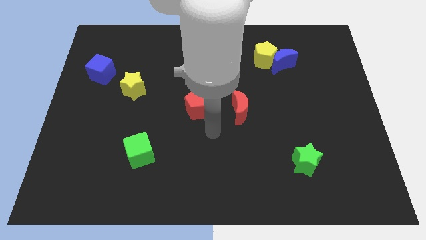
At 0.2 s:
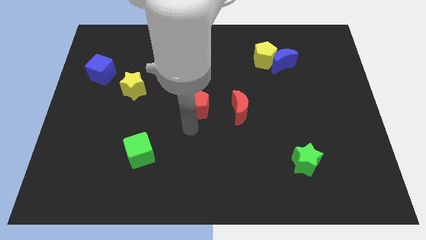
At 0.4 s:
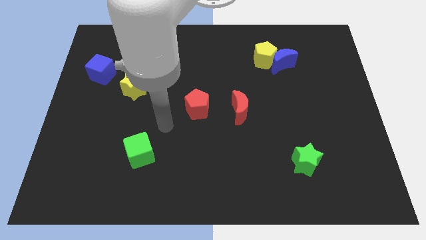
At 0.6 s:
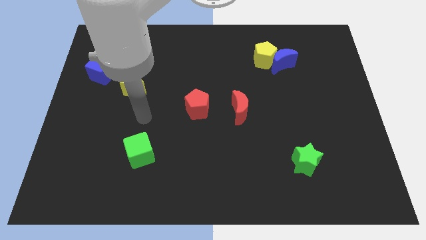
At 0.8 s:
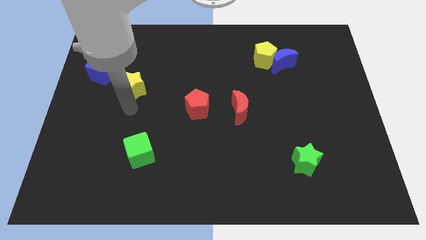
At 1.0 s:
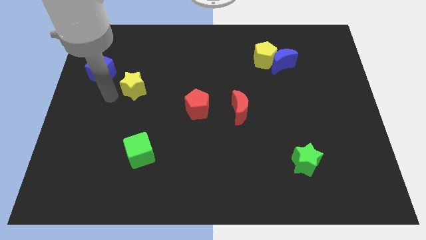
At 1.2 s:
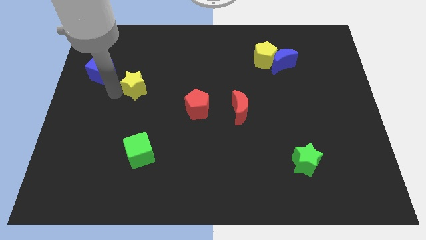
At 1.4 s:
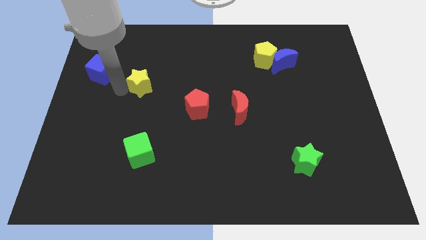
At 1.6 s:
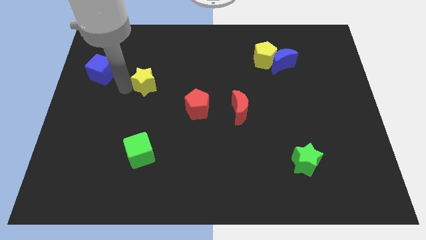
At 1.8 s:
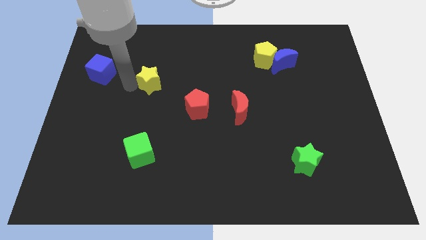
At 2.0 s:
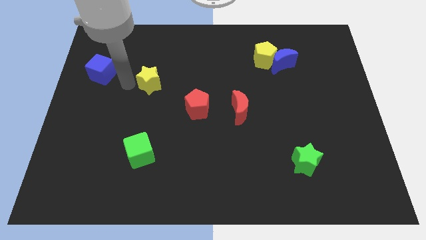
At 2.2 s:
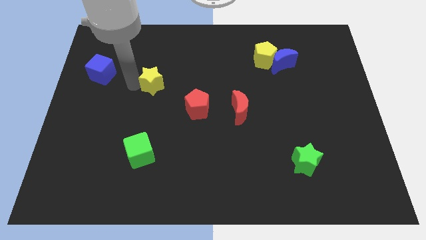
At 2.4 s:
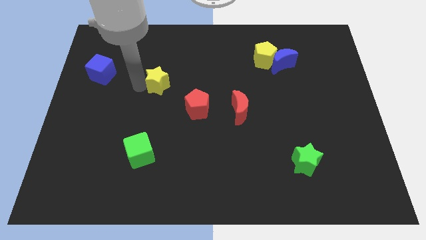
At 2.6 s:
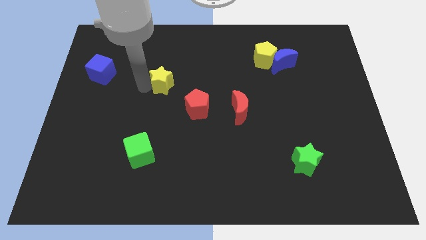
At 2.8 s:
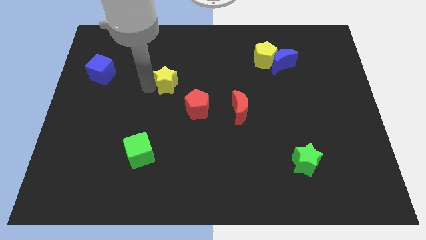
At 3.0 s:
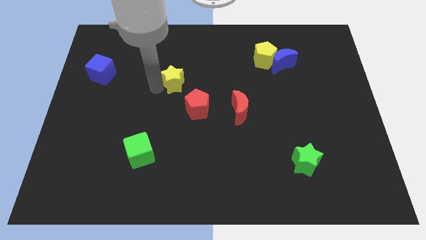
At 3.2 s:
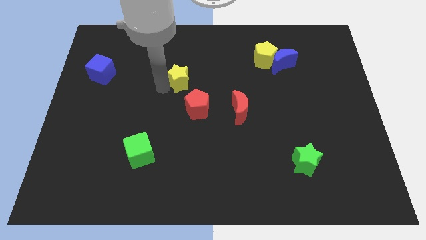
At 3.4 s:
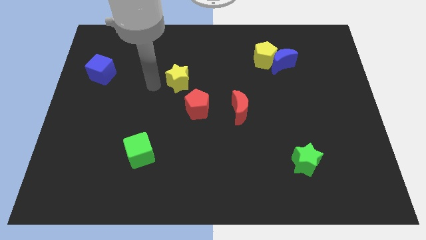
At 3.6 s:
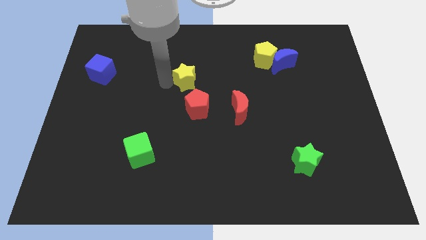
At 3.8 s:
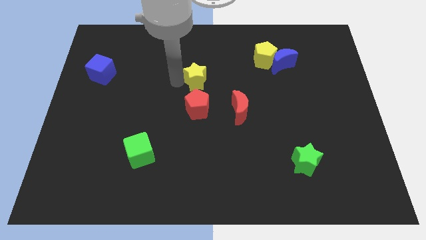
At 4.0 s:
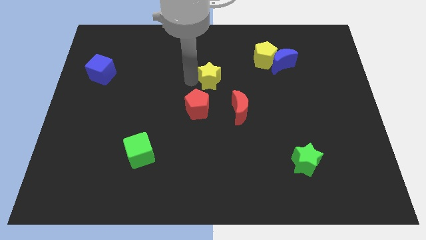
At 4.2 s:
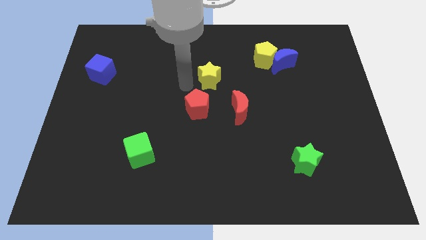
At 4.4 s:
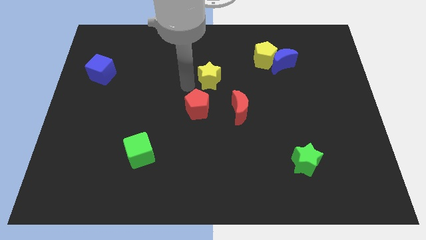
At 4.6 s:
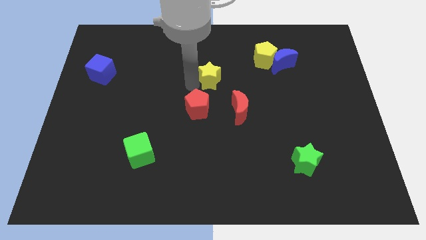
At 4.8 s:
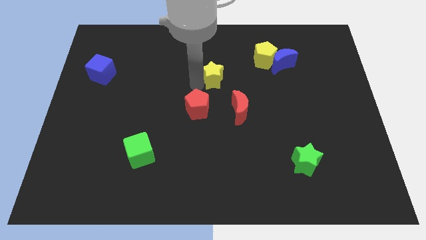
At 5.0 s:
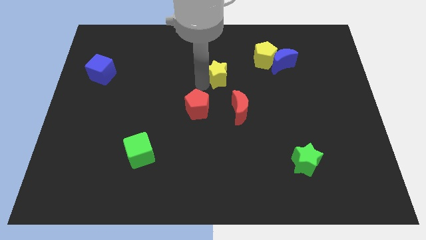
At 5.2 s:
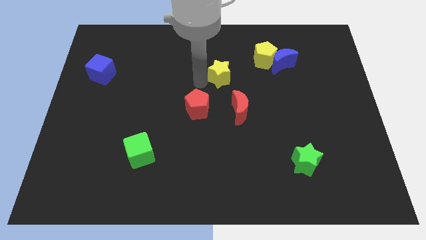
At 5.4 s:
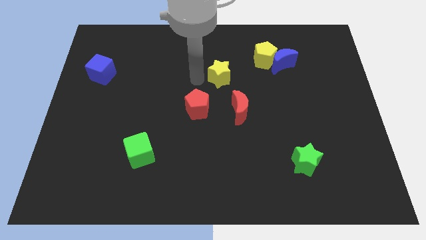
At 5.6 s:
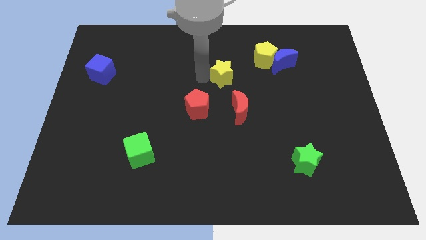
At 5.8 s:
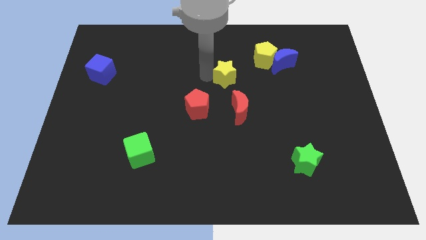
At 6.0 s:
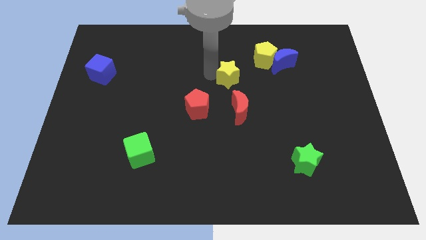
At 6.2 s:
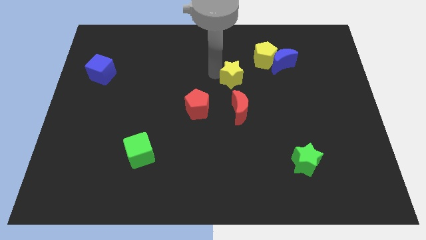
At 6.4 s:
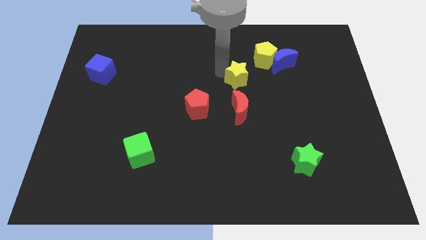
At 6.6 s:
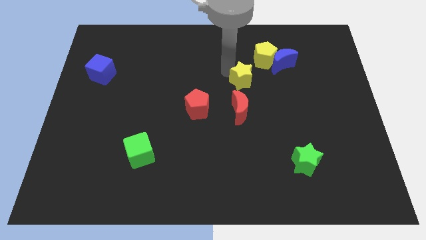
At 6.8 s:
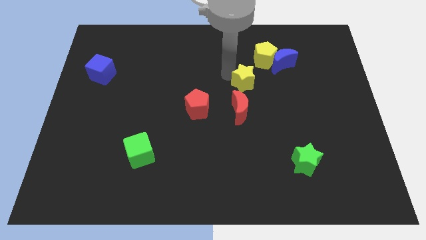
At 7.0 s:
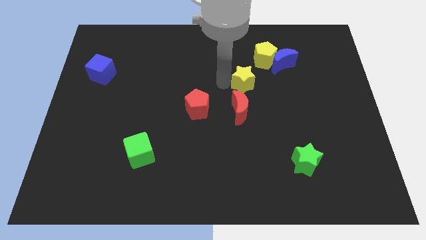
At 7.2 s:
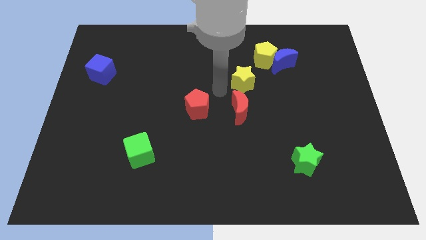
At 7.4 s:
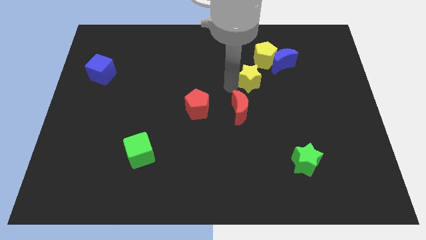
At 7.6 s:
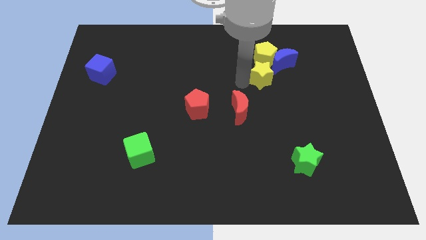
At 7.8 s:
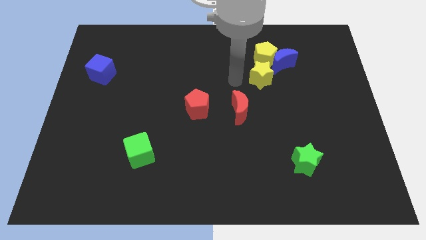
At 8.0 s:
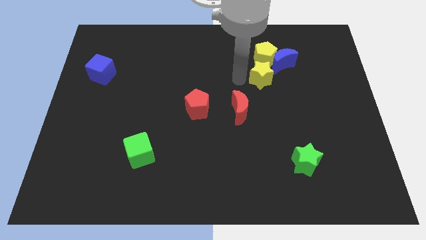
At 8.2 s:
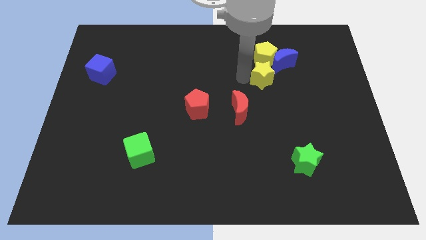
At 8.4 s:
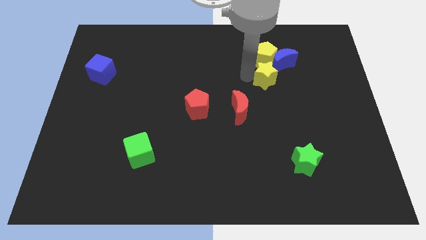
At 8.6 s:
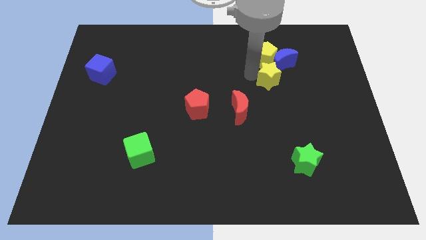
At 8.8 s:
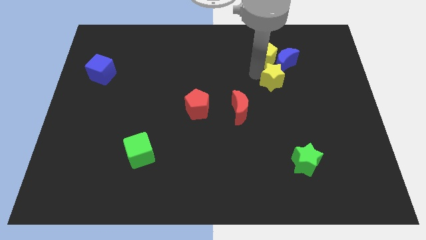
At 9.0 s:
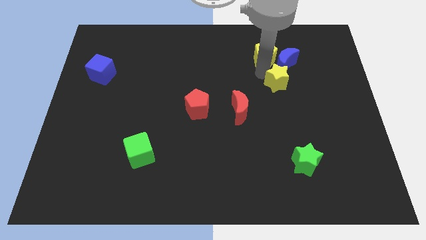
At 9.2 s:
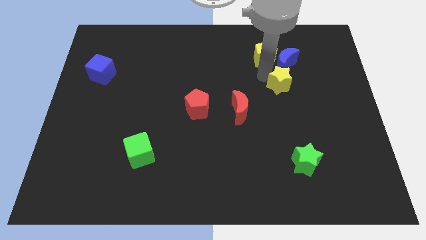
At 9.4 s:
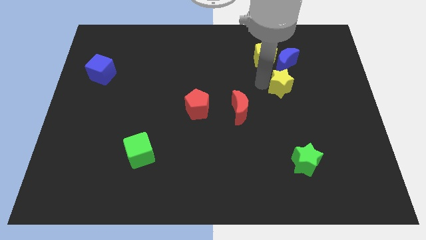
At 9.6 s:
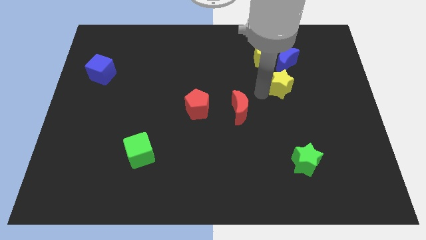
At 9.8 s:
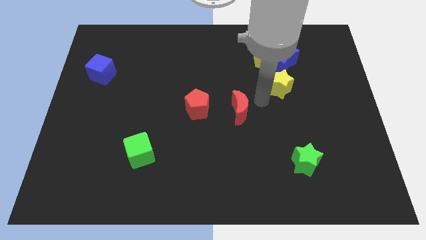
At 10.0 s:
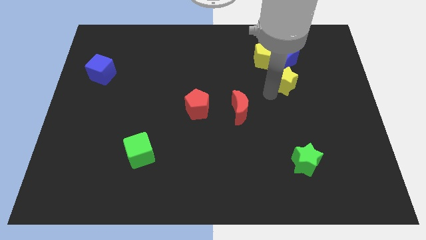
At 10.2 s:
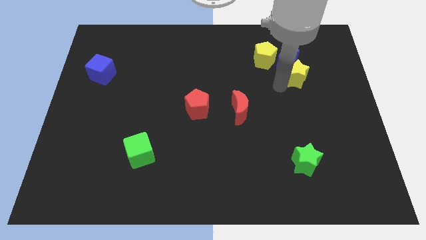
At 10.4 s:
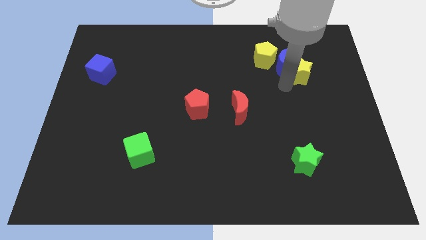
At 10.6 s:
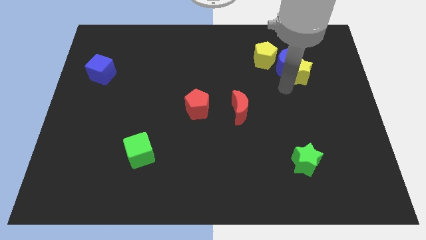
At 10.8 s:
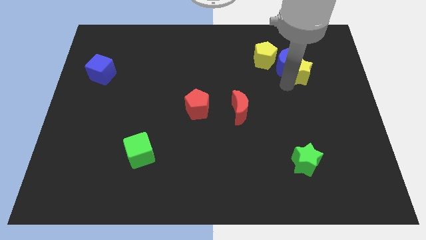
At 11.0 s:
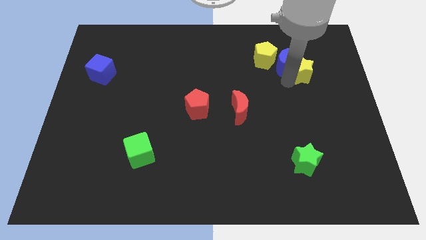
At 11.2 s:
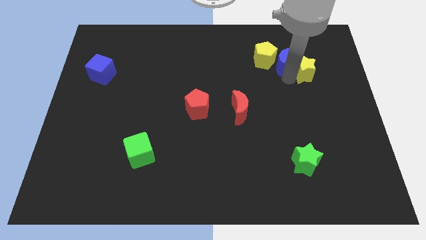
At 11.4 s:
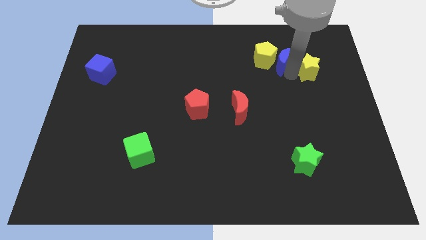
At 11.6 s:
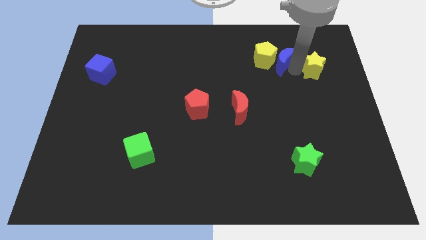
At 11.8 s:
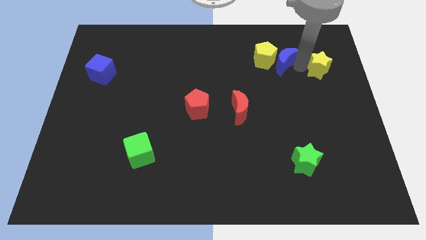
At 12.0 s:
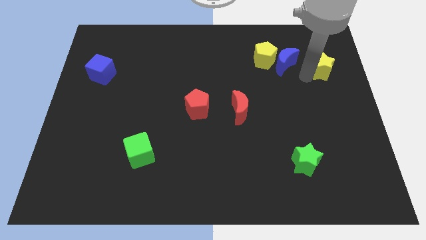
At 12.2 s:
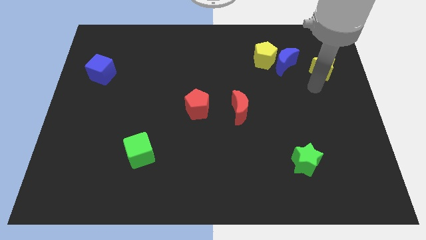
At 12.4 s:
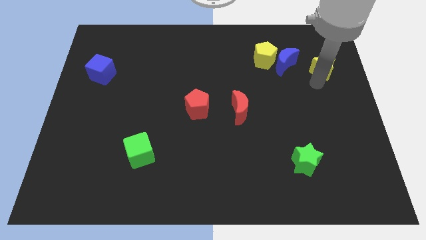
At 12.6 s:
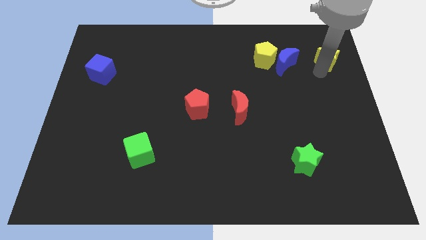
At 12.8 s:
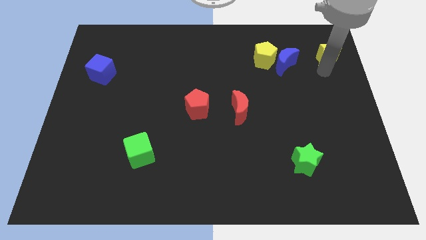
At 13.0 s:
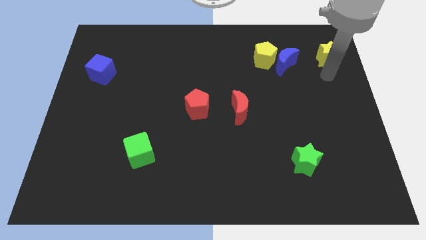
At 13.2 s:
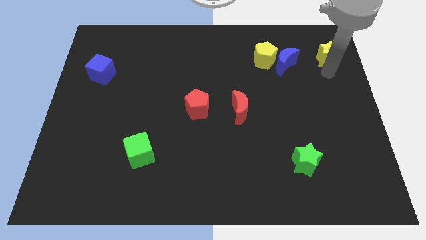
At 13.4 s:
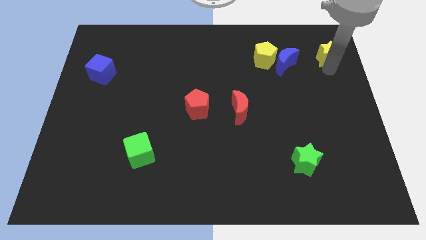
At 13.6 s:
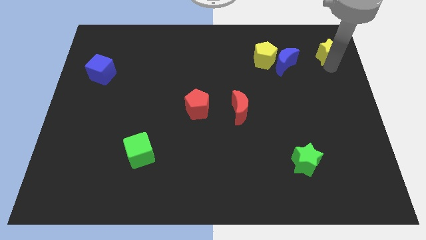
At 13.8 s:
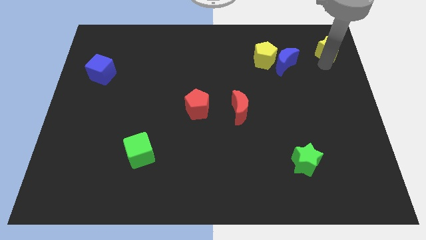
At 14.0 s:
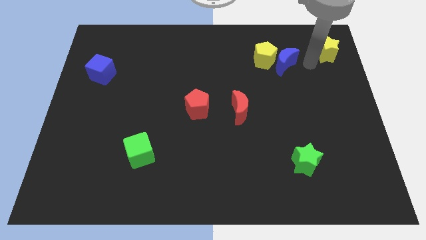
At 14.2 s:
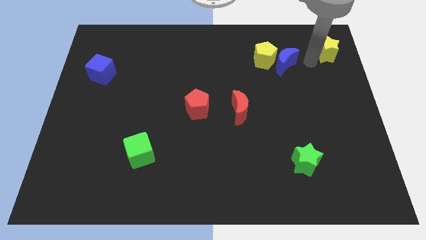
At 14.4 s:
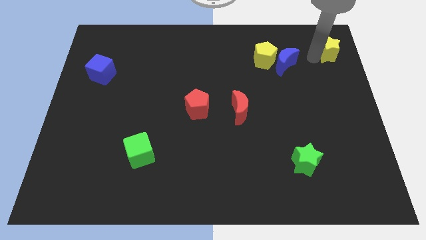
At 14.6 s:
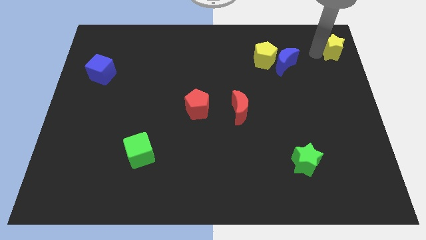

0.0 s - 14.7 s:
push the yellow star to the top right

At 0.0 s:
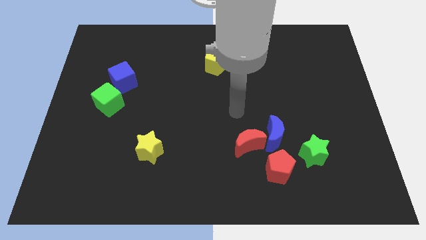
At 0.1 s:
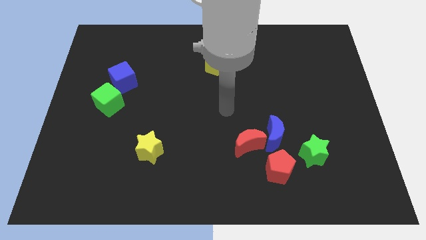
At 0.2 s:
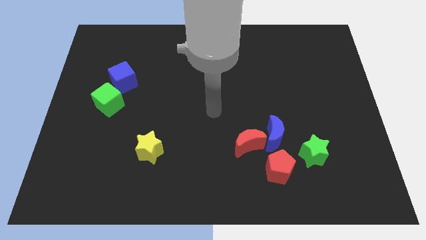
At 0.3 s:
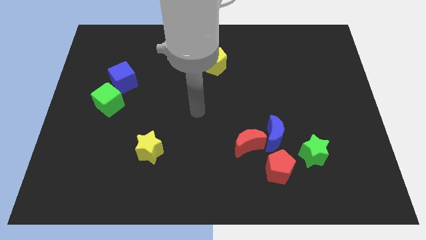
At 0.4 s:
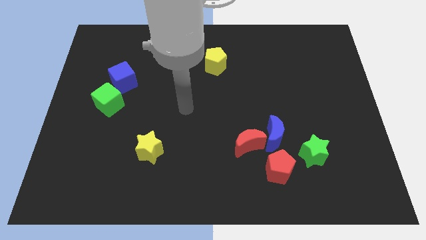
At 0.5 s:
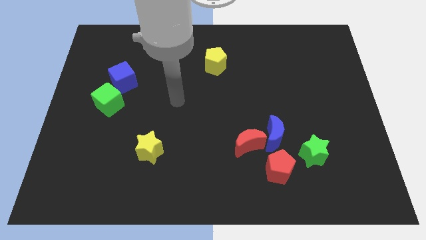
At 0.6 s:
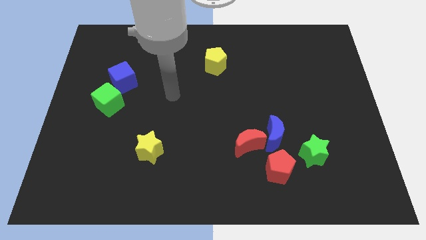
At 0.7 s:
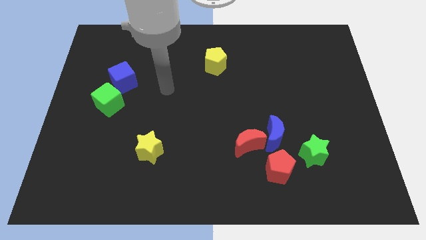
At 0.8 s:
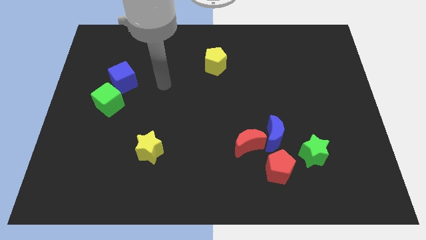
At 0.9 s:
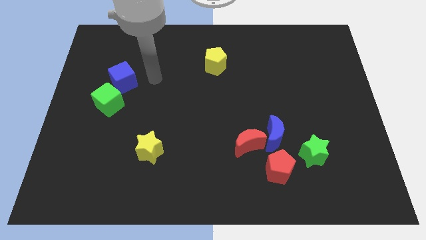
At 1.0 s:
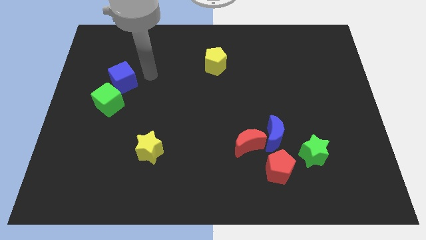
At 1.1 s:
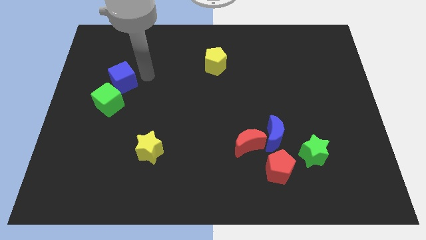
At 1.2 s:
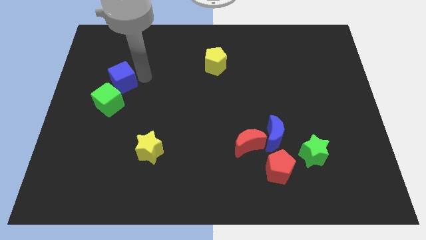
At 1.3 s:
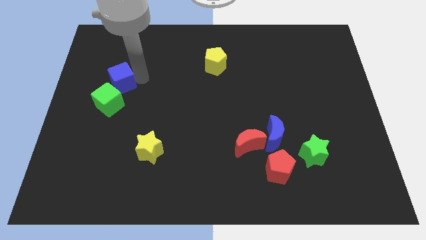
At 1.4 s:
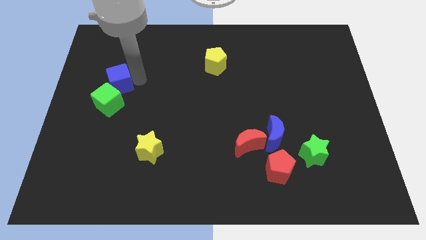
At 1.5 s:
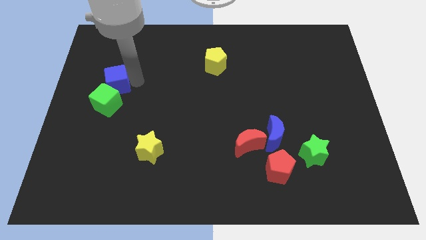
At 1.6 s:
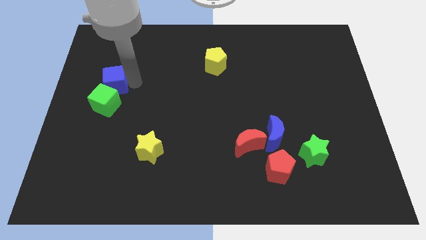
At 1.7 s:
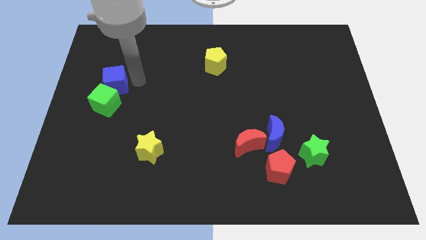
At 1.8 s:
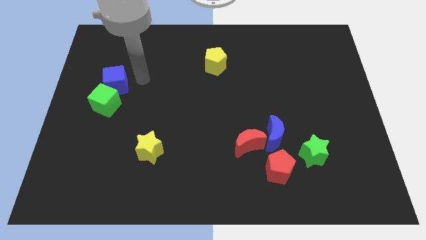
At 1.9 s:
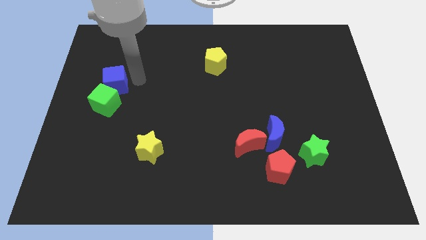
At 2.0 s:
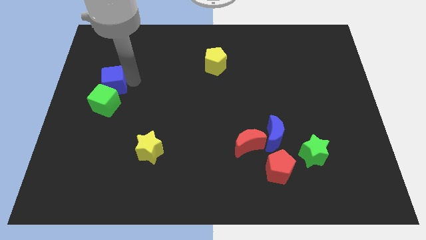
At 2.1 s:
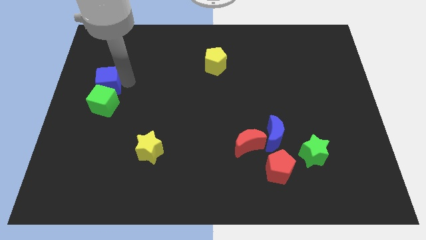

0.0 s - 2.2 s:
slide the blue cube to the center left
